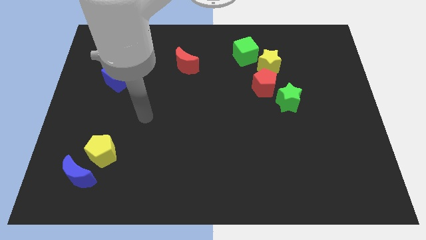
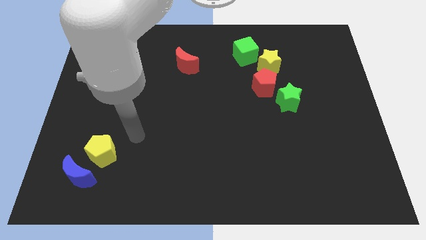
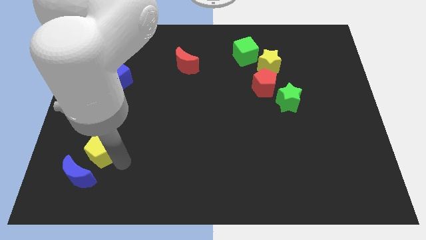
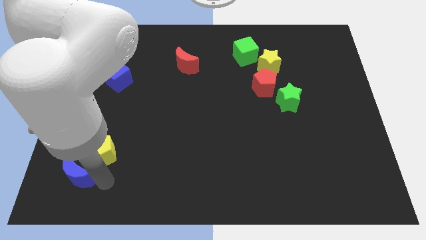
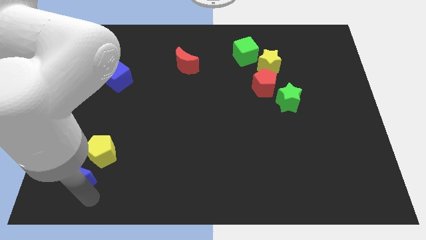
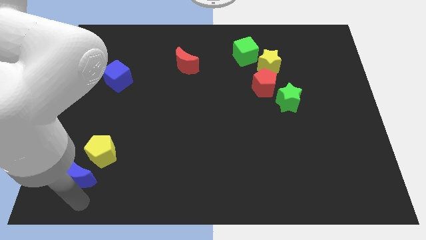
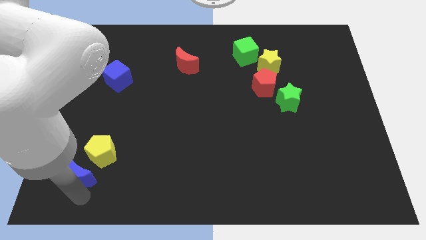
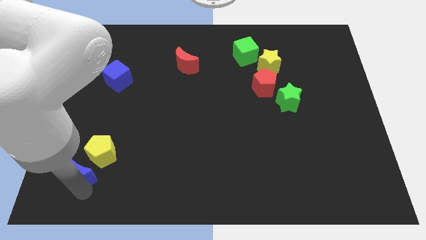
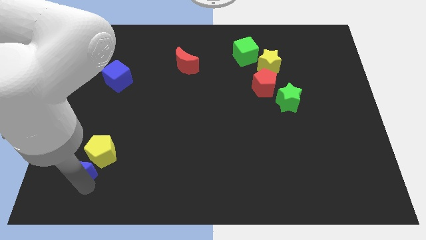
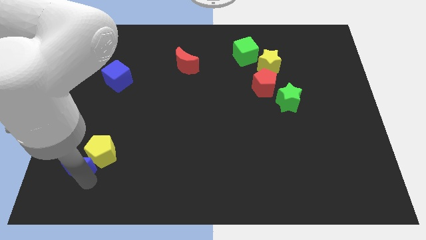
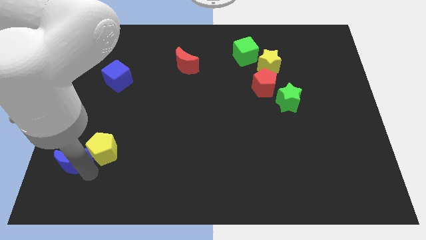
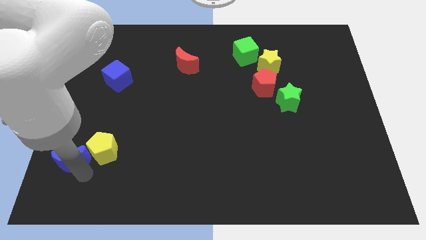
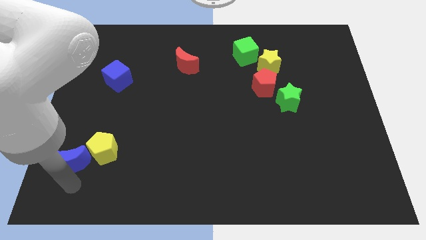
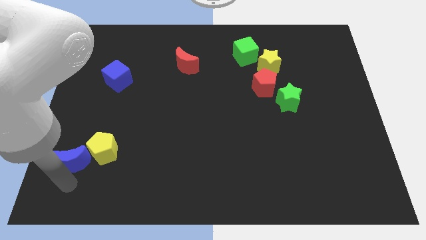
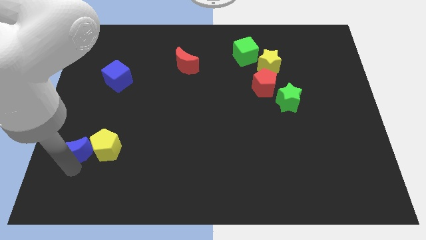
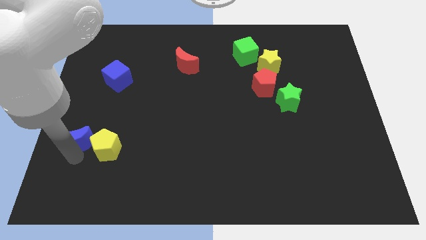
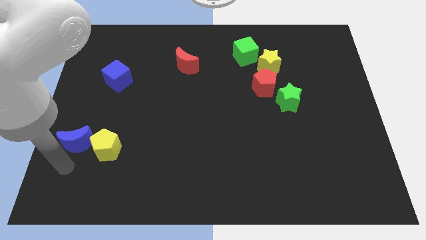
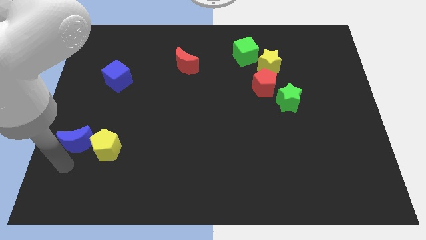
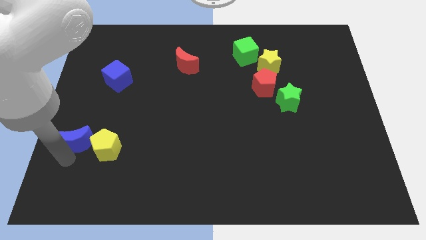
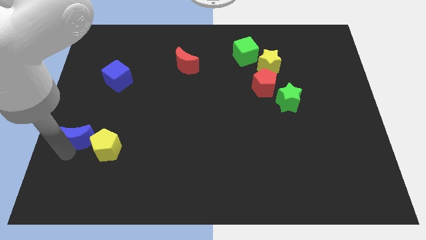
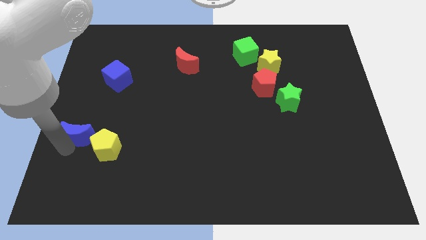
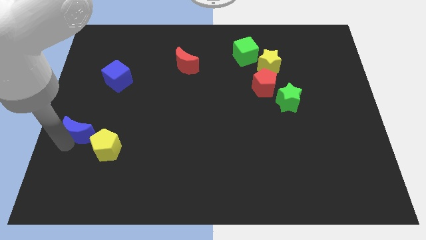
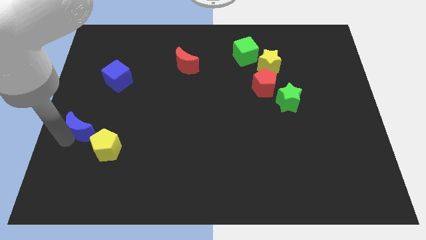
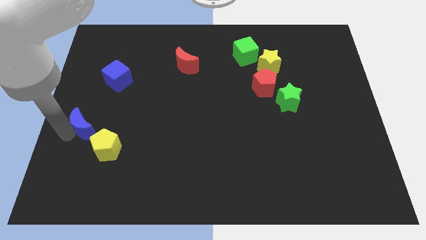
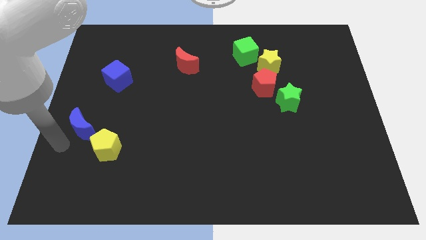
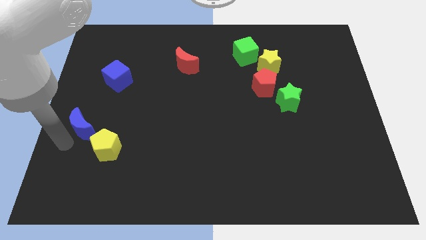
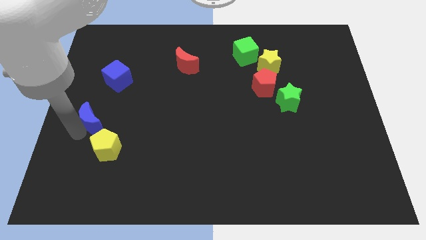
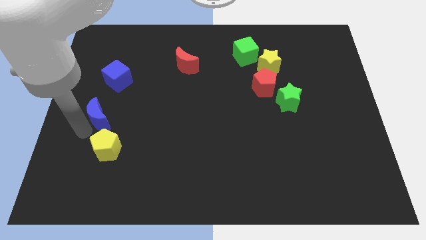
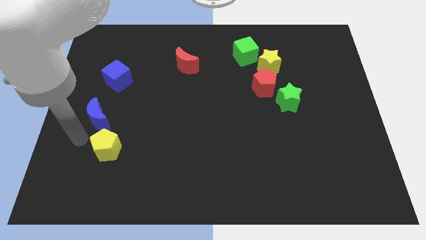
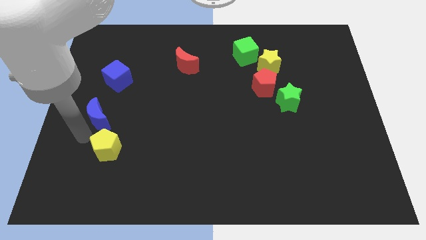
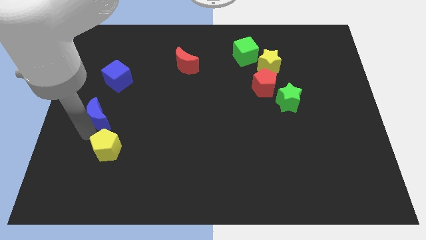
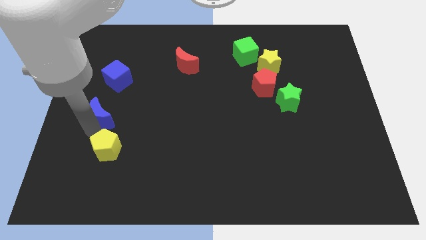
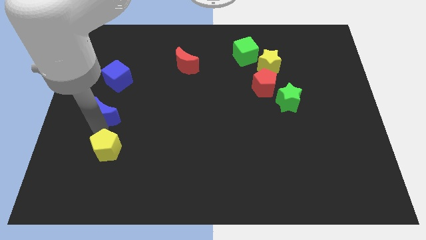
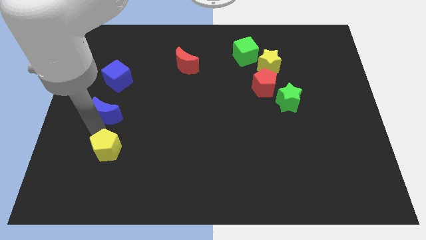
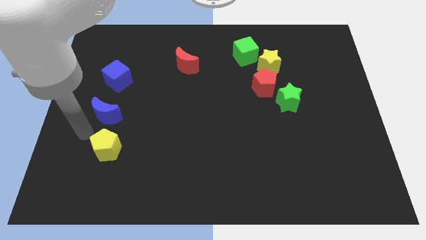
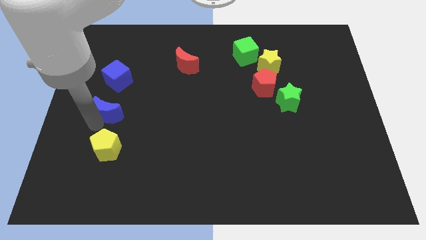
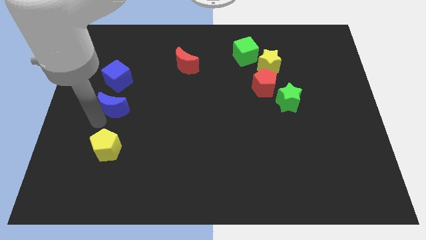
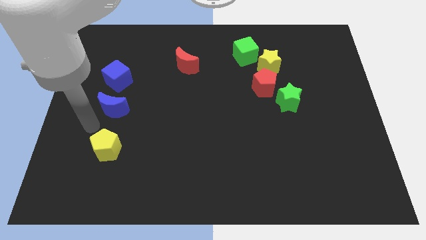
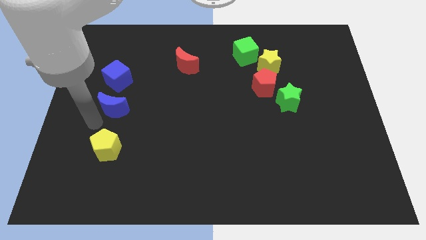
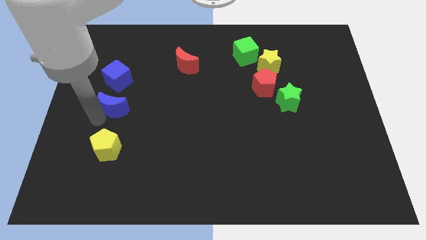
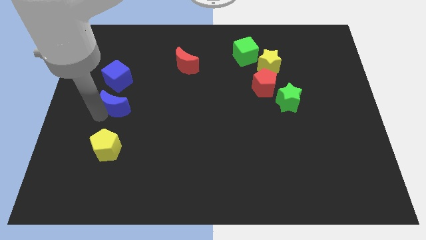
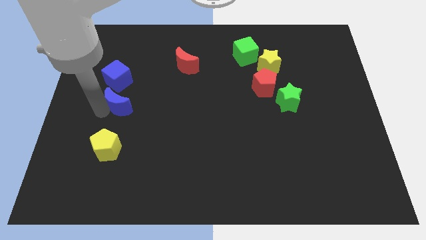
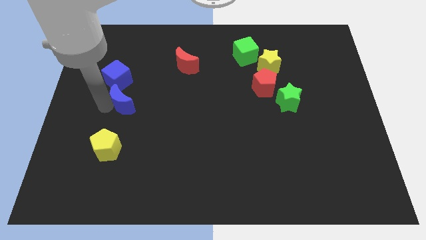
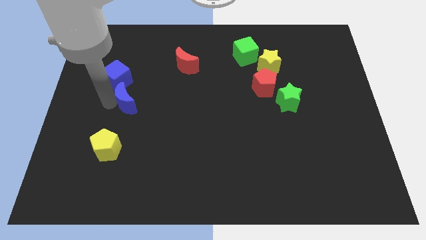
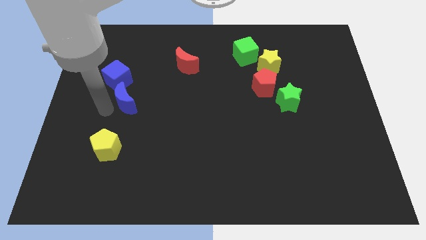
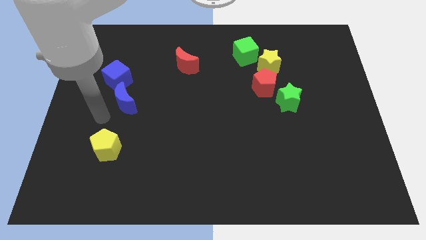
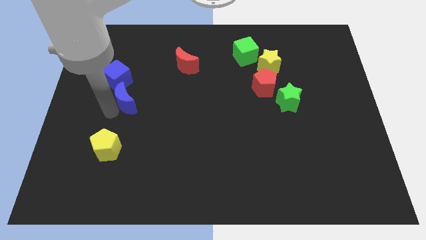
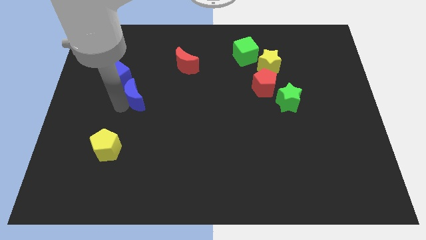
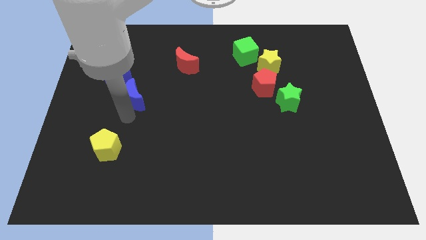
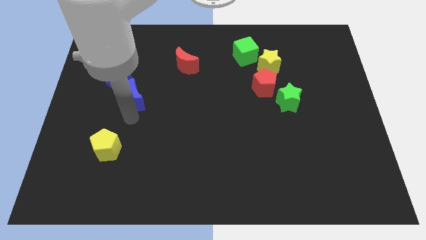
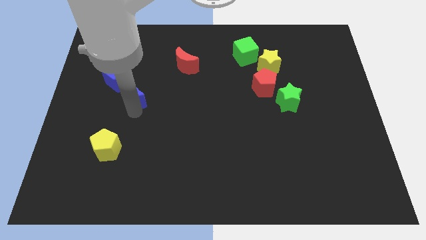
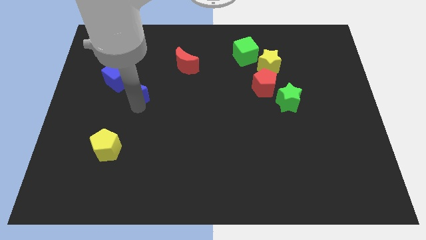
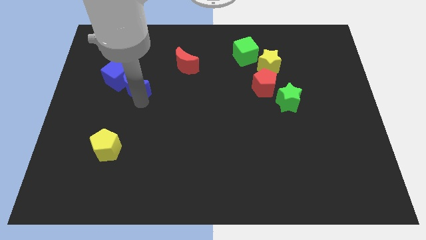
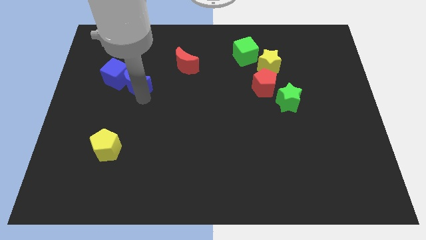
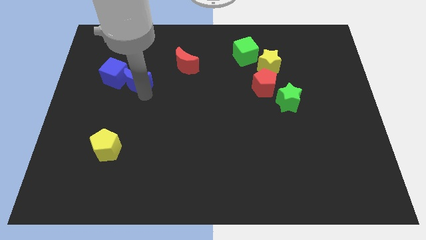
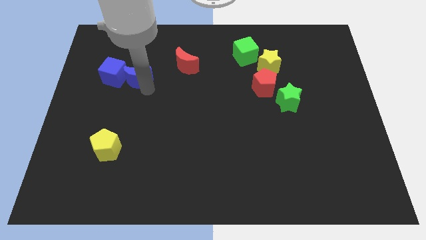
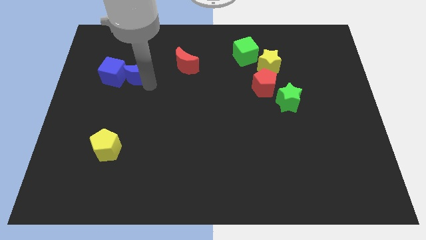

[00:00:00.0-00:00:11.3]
slide the blue moon to the top right of the blue cube
